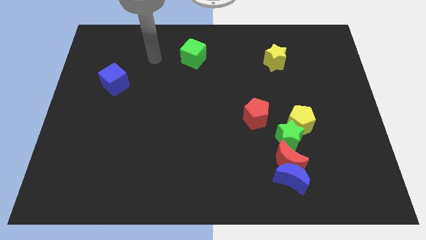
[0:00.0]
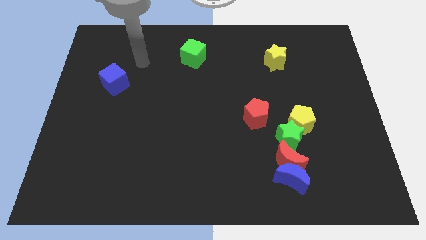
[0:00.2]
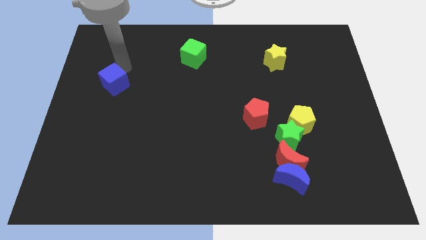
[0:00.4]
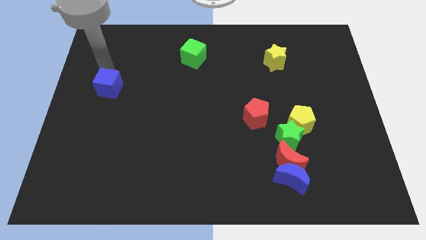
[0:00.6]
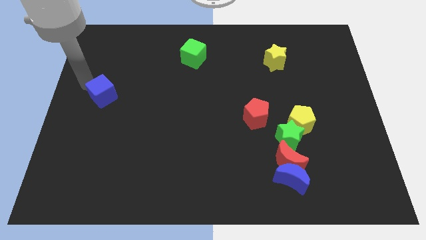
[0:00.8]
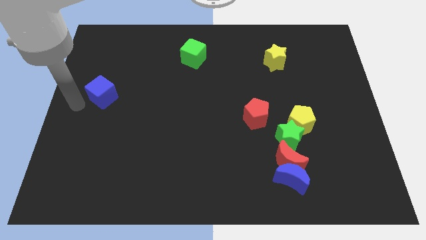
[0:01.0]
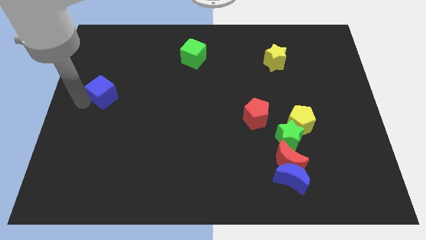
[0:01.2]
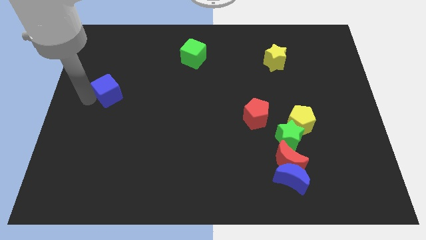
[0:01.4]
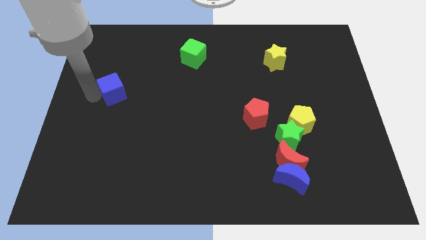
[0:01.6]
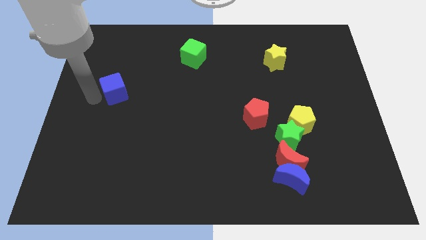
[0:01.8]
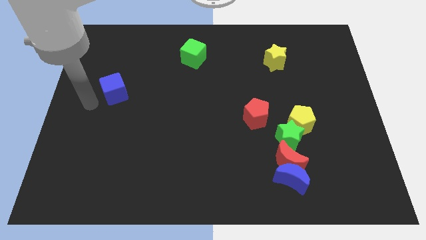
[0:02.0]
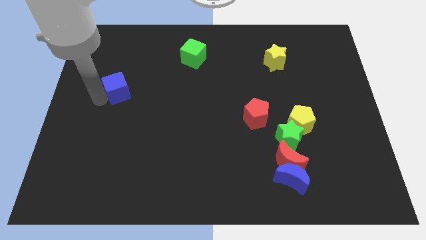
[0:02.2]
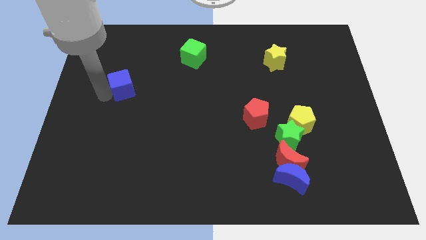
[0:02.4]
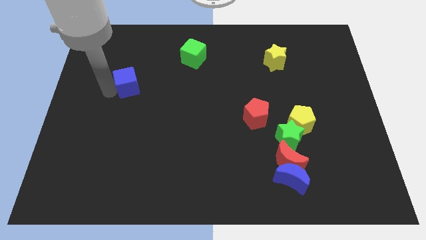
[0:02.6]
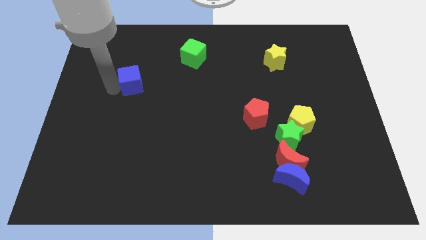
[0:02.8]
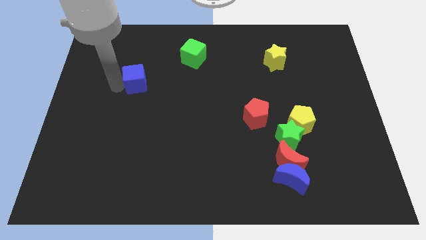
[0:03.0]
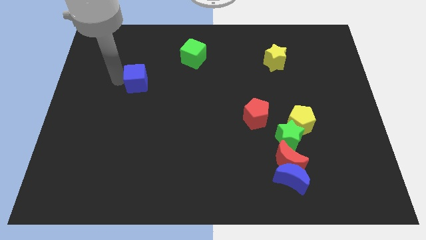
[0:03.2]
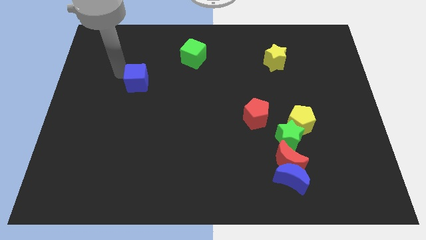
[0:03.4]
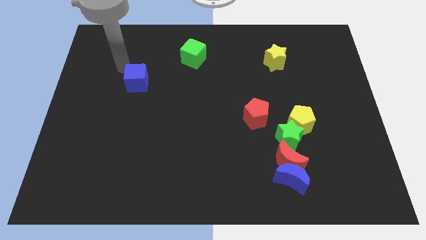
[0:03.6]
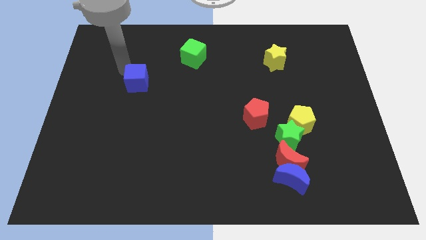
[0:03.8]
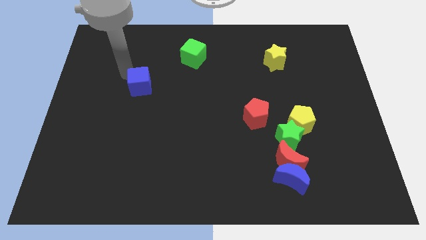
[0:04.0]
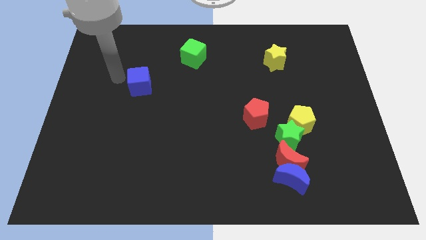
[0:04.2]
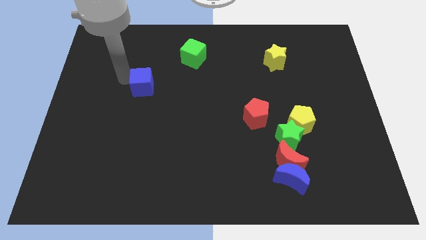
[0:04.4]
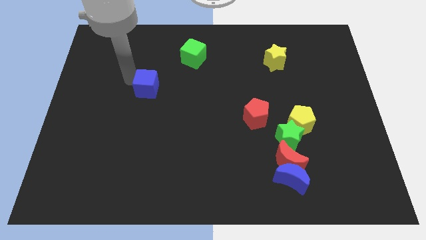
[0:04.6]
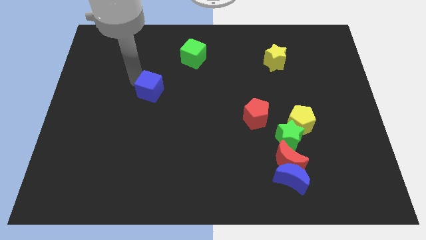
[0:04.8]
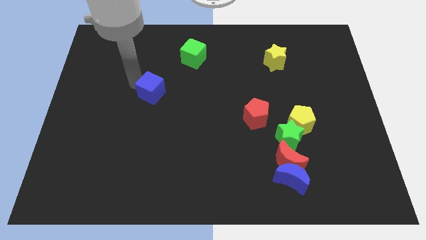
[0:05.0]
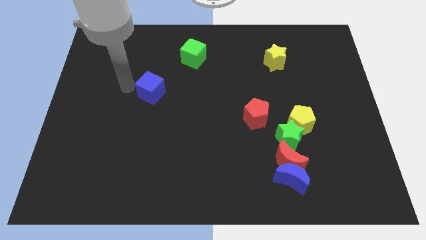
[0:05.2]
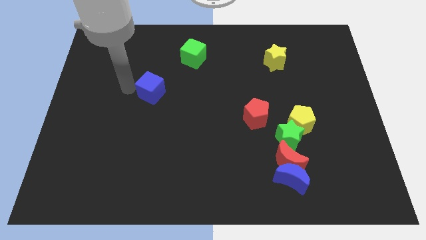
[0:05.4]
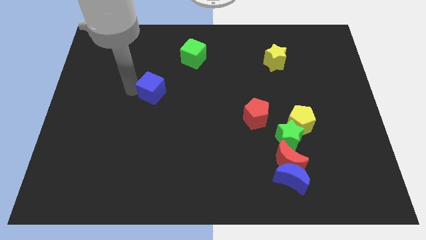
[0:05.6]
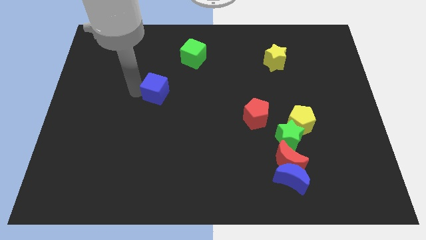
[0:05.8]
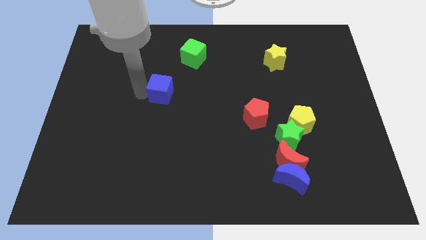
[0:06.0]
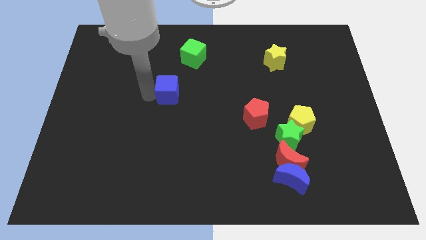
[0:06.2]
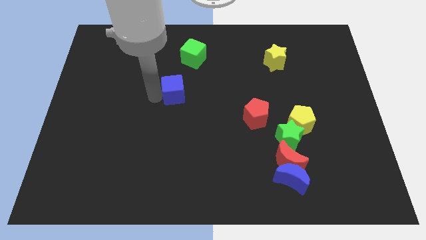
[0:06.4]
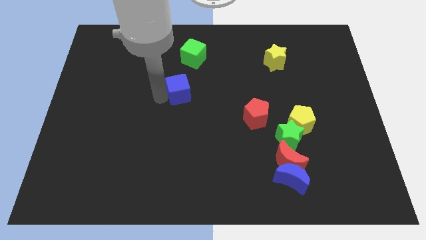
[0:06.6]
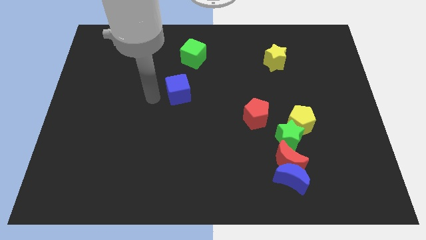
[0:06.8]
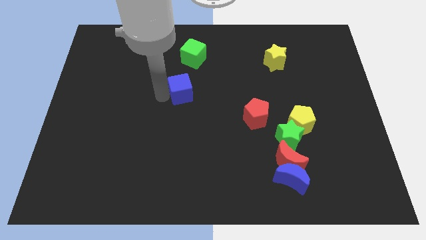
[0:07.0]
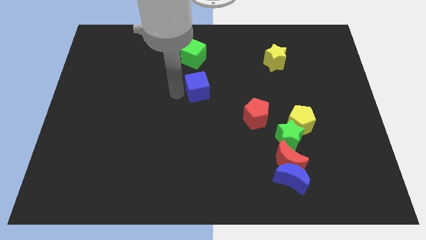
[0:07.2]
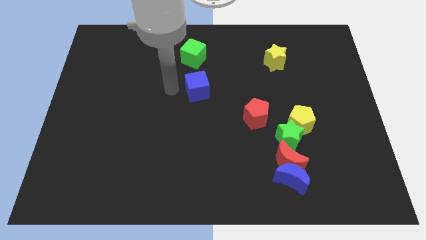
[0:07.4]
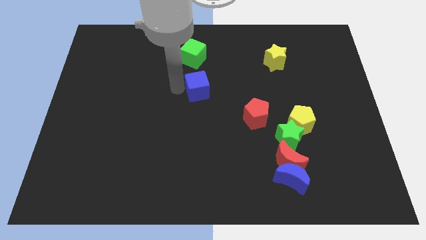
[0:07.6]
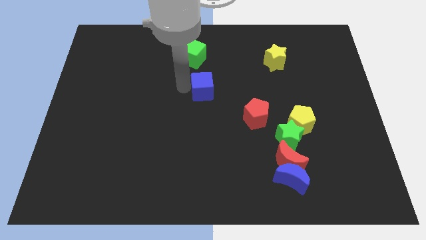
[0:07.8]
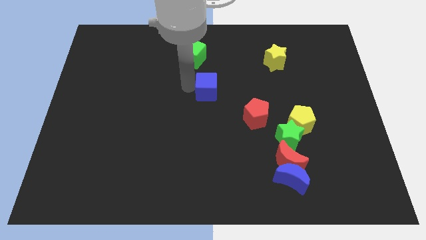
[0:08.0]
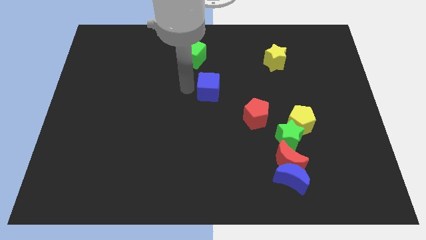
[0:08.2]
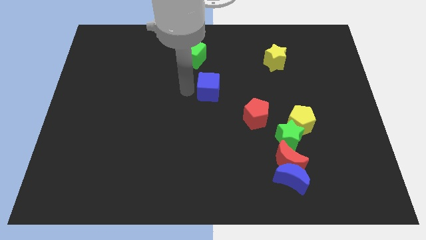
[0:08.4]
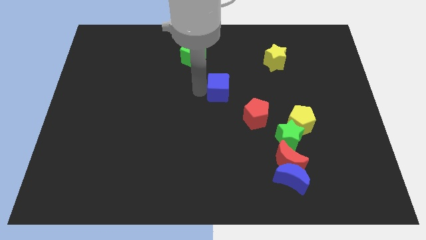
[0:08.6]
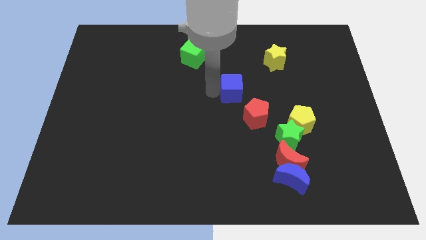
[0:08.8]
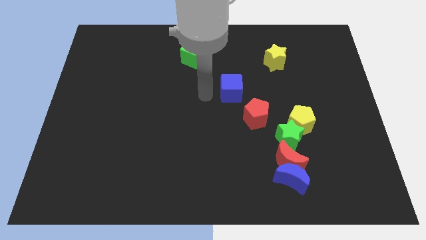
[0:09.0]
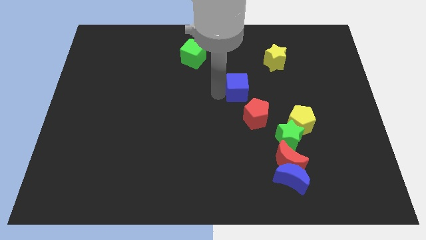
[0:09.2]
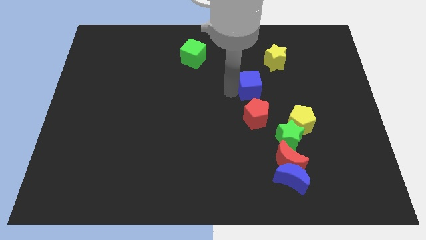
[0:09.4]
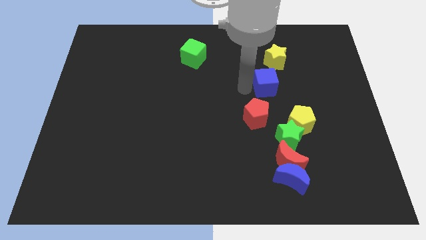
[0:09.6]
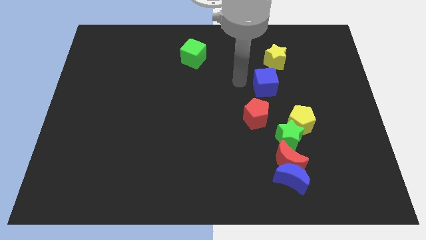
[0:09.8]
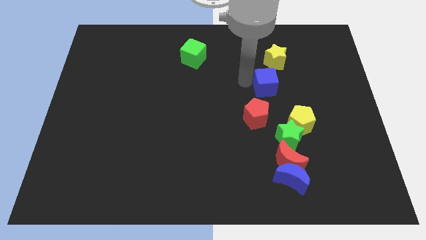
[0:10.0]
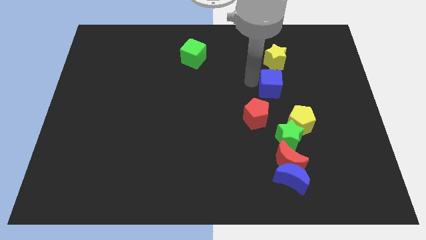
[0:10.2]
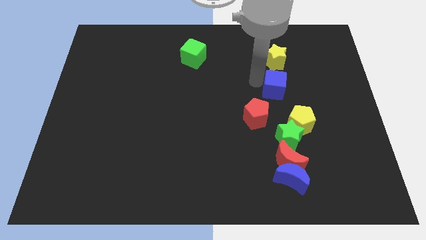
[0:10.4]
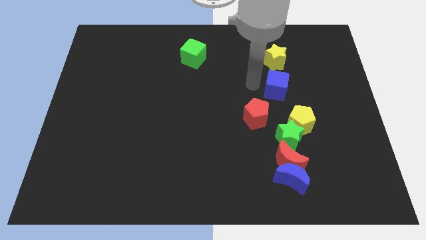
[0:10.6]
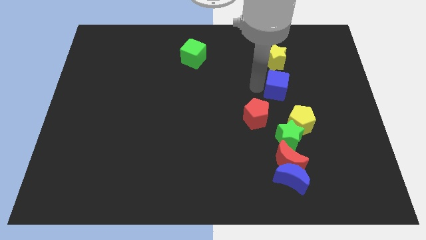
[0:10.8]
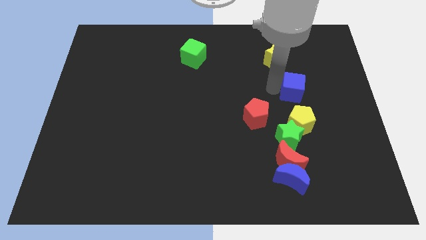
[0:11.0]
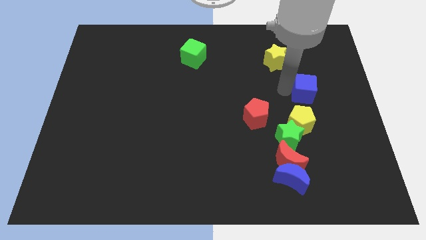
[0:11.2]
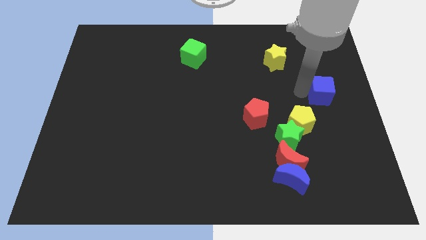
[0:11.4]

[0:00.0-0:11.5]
move the blue cube to the right side of the board

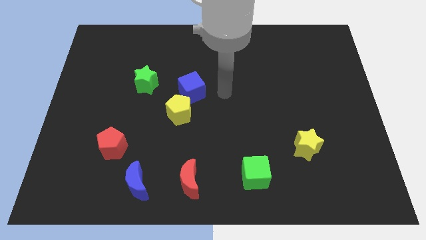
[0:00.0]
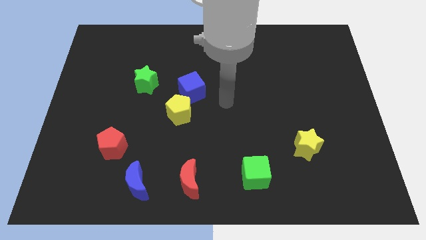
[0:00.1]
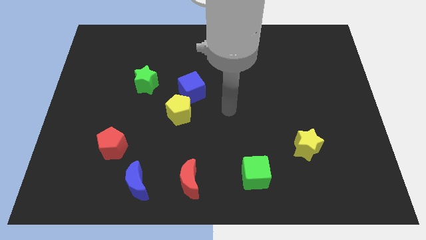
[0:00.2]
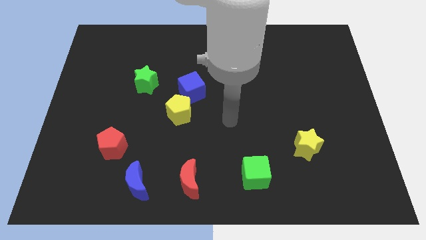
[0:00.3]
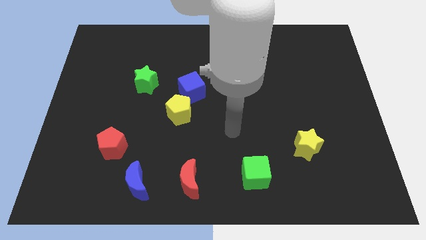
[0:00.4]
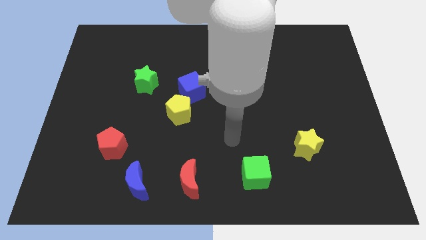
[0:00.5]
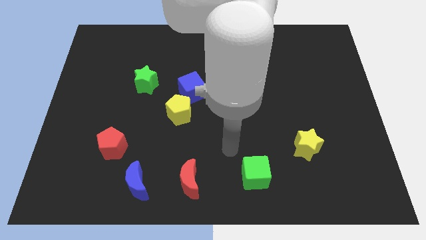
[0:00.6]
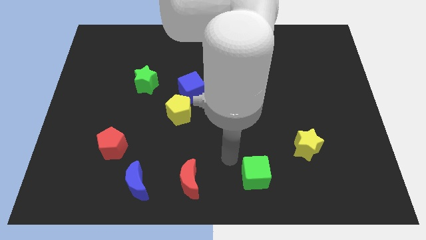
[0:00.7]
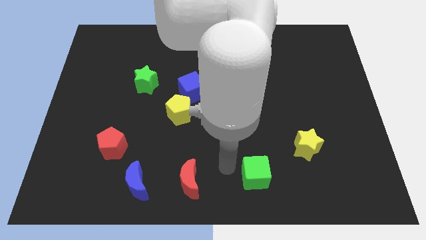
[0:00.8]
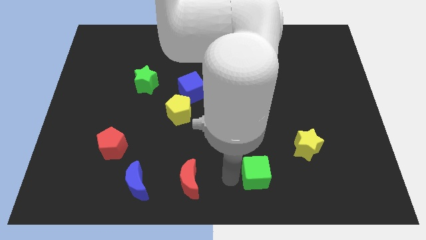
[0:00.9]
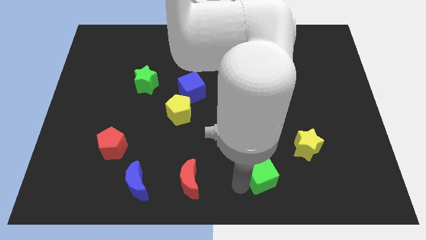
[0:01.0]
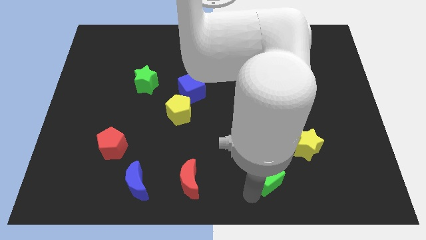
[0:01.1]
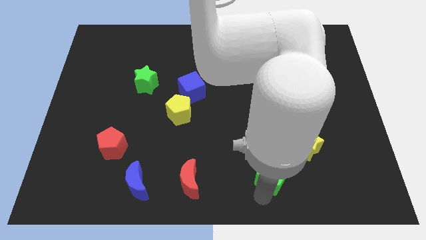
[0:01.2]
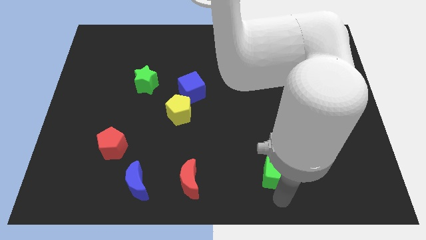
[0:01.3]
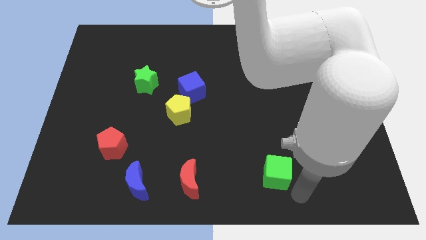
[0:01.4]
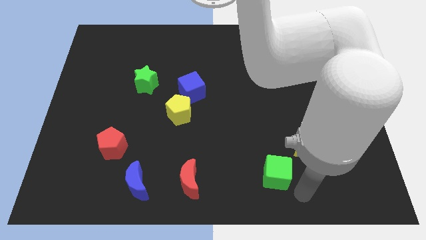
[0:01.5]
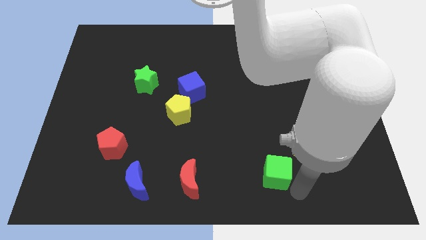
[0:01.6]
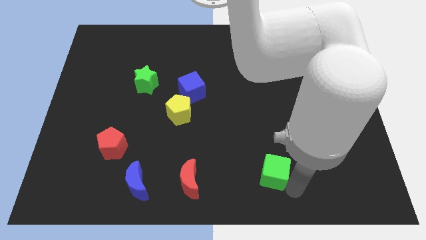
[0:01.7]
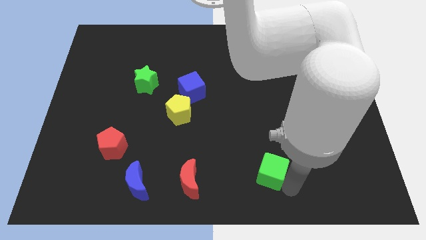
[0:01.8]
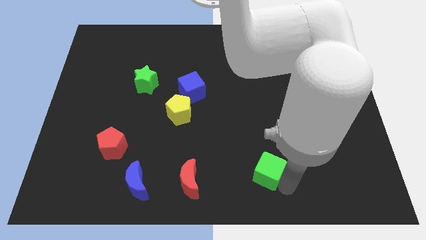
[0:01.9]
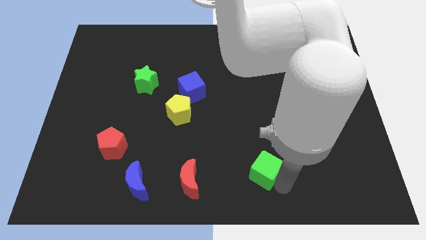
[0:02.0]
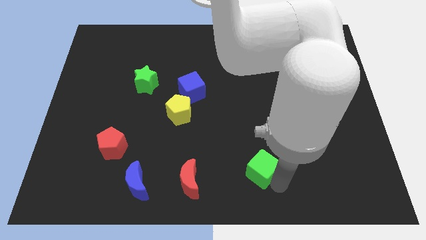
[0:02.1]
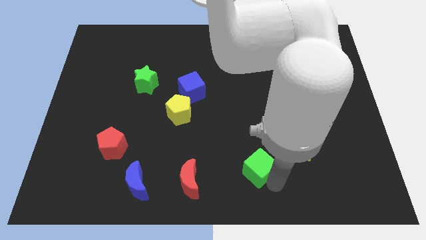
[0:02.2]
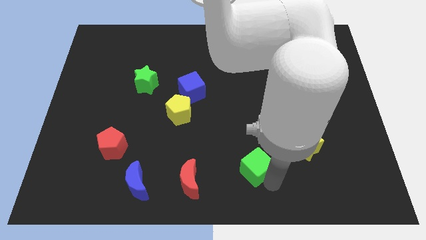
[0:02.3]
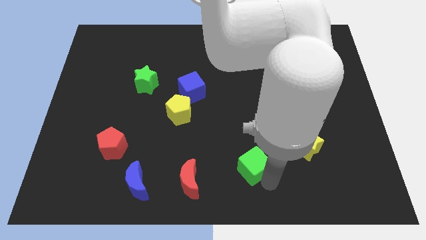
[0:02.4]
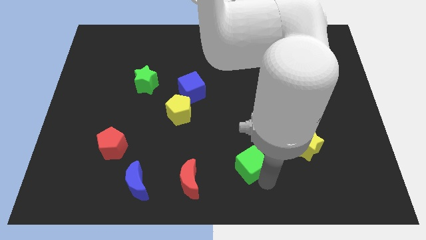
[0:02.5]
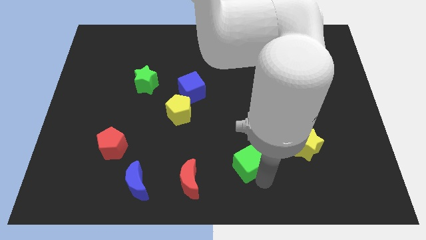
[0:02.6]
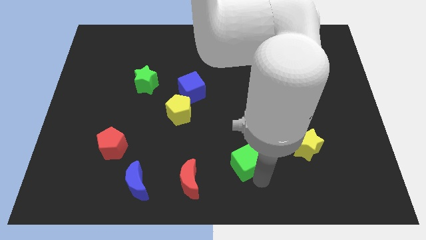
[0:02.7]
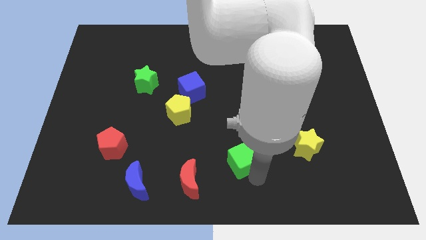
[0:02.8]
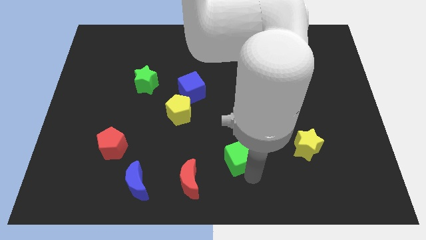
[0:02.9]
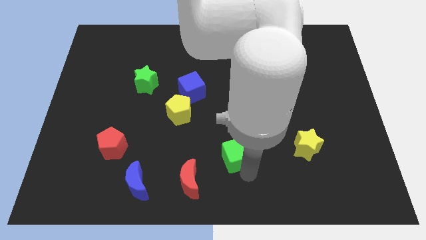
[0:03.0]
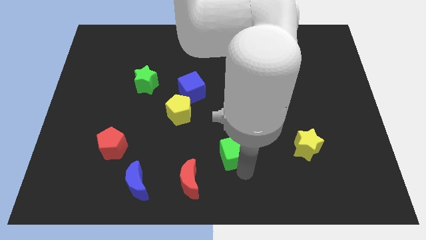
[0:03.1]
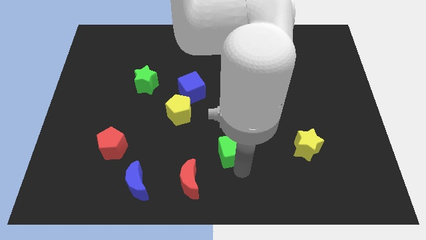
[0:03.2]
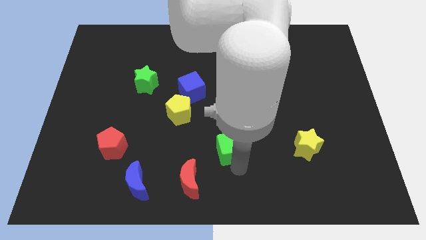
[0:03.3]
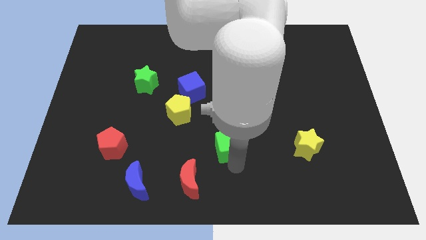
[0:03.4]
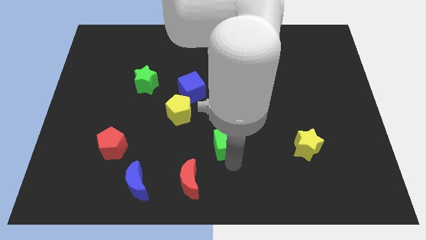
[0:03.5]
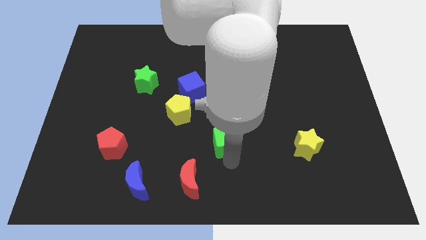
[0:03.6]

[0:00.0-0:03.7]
put the green cube to the middle
